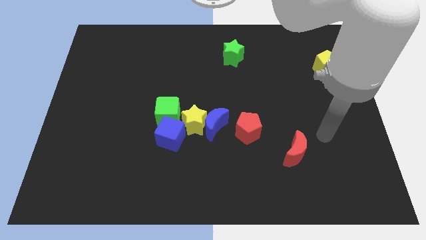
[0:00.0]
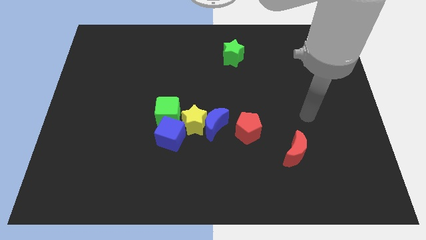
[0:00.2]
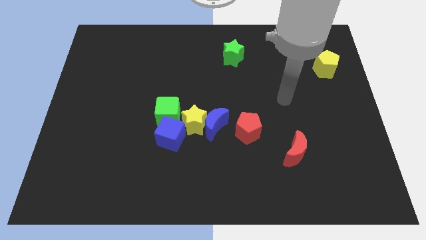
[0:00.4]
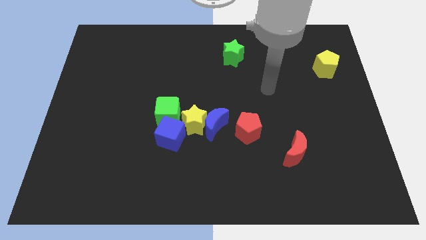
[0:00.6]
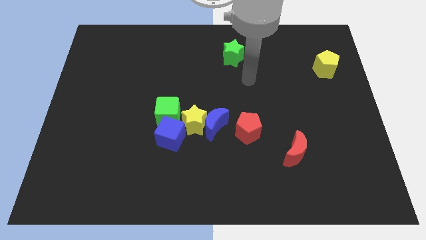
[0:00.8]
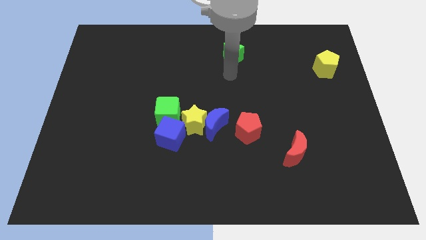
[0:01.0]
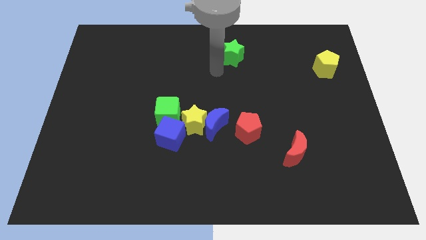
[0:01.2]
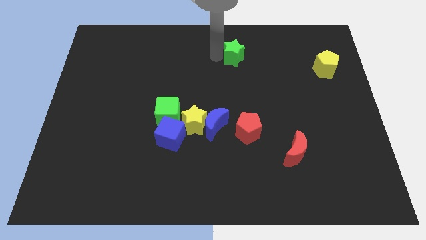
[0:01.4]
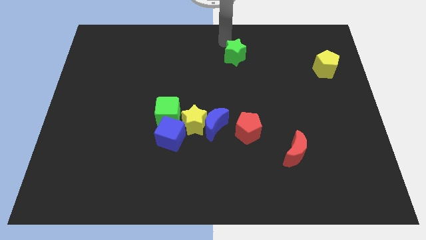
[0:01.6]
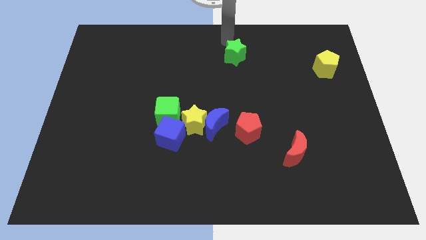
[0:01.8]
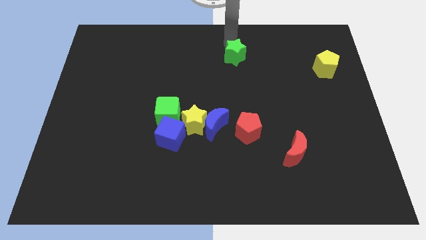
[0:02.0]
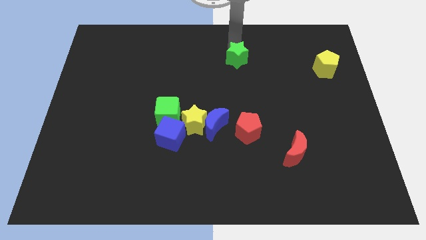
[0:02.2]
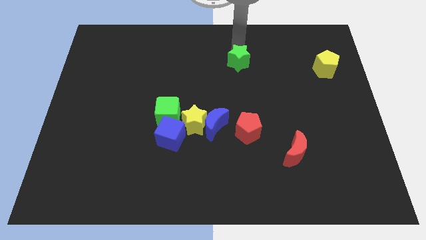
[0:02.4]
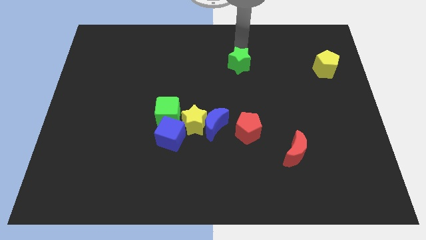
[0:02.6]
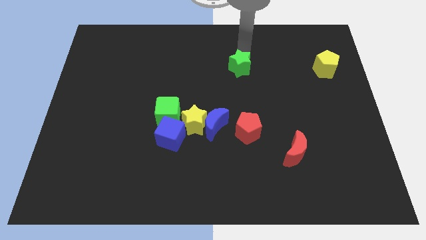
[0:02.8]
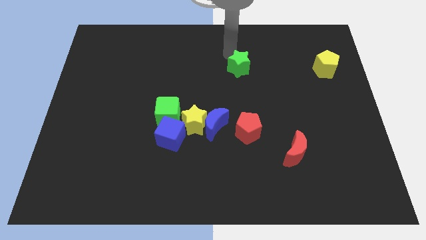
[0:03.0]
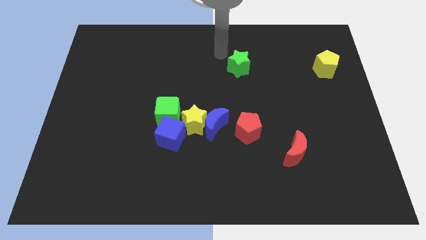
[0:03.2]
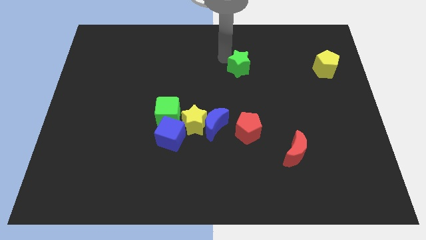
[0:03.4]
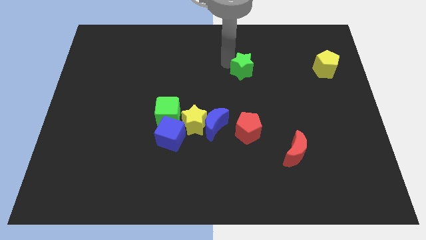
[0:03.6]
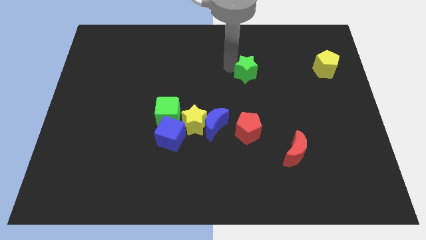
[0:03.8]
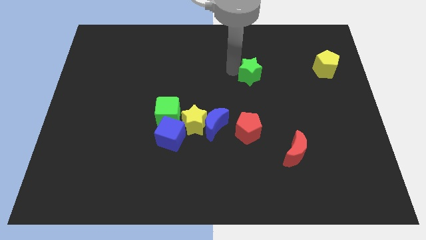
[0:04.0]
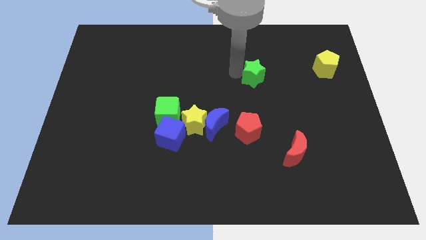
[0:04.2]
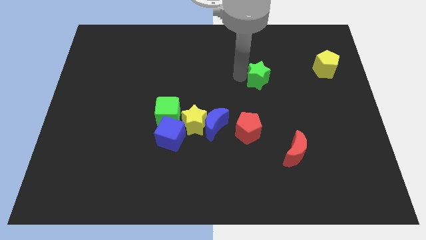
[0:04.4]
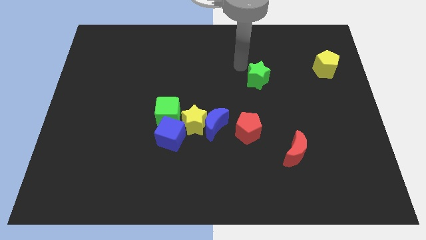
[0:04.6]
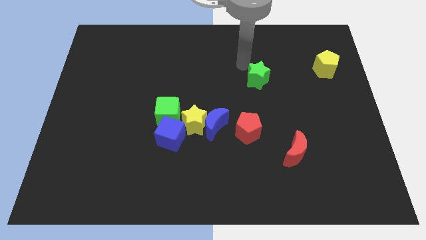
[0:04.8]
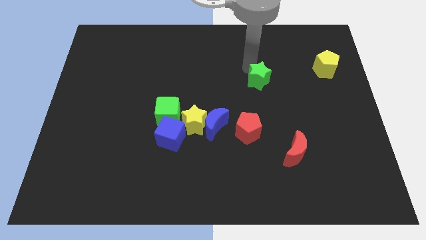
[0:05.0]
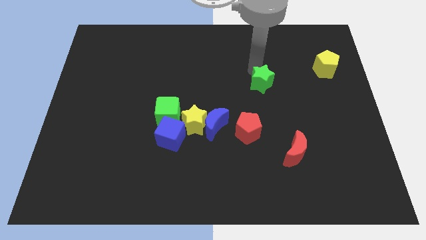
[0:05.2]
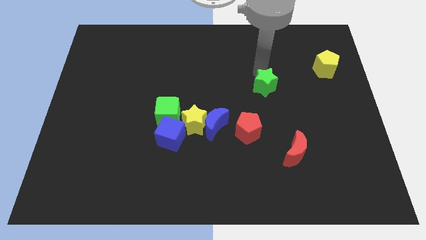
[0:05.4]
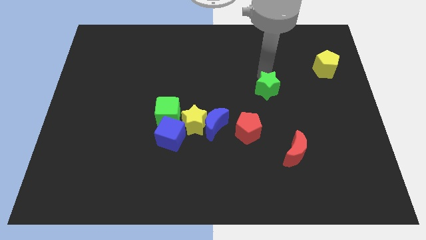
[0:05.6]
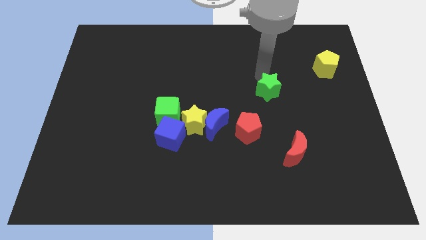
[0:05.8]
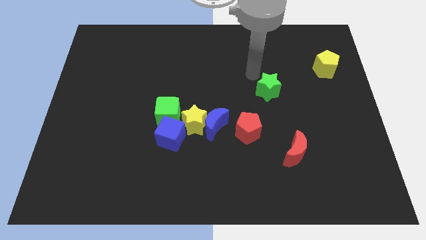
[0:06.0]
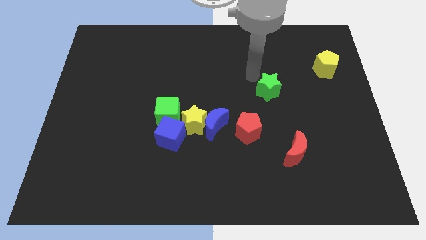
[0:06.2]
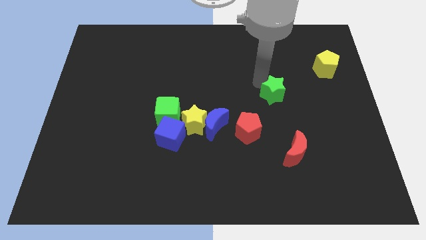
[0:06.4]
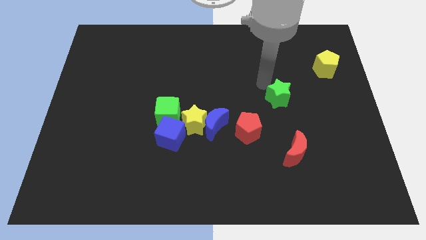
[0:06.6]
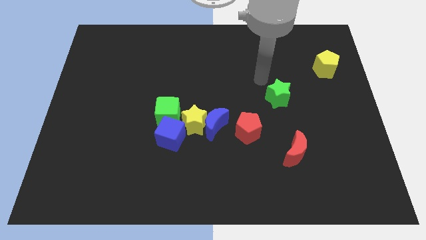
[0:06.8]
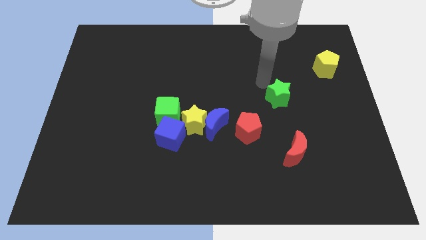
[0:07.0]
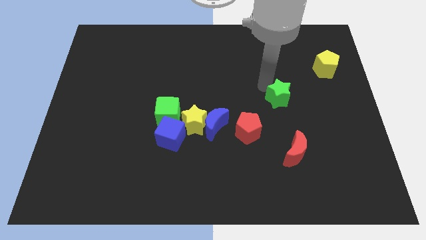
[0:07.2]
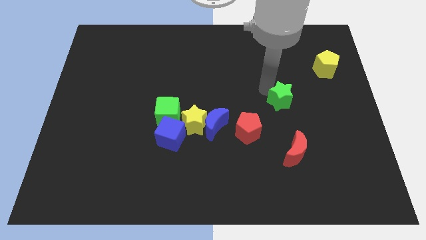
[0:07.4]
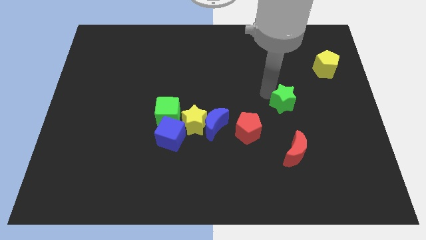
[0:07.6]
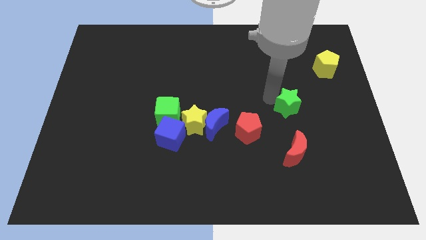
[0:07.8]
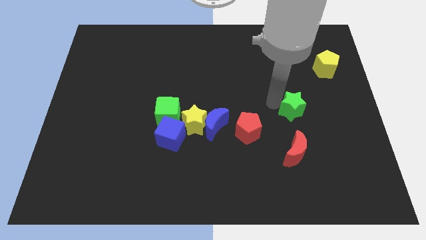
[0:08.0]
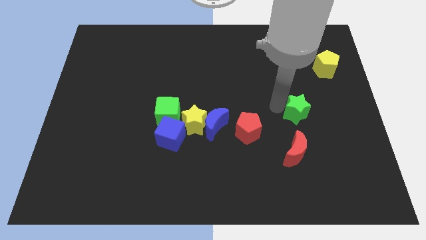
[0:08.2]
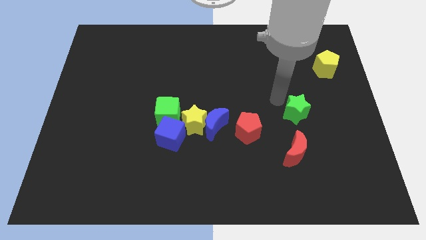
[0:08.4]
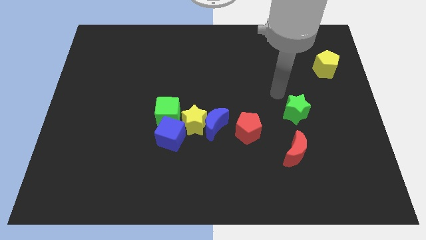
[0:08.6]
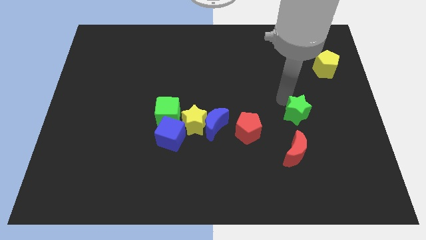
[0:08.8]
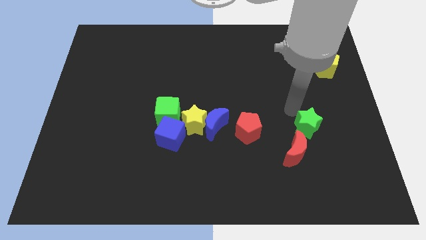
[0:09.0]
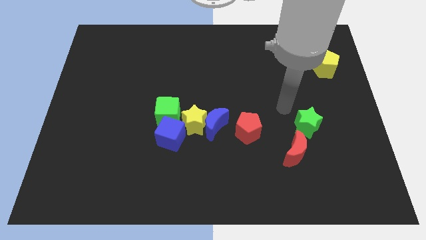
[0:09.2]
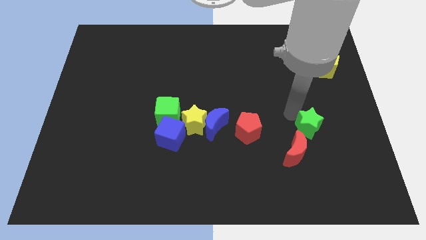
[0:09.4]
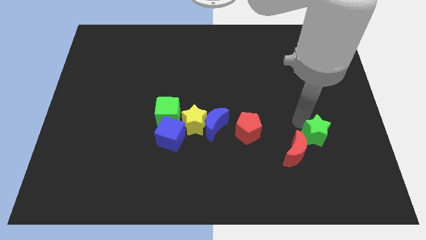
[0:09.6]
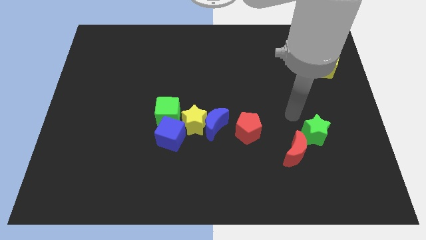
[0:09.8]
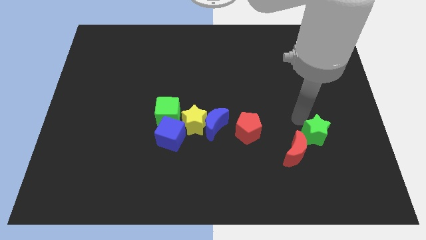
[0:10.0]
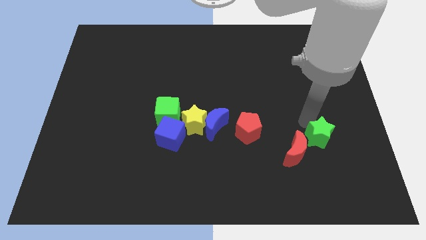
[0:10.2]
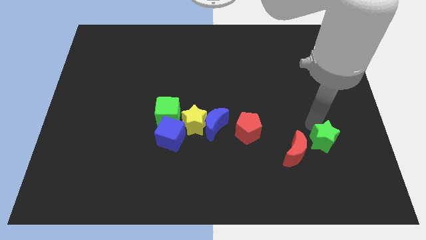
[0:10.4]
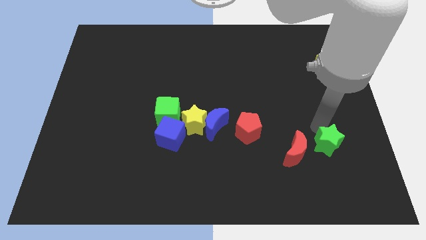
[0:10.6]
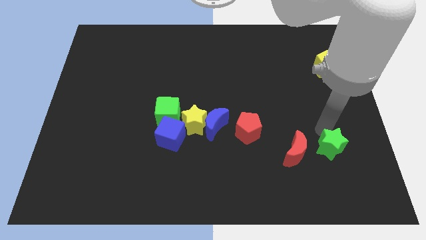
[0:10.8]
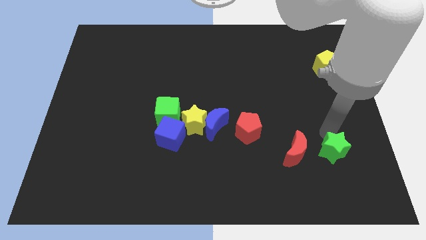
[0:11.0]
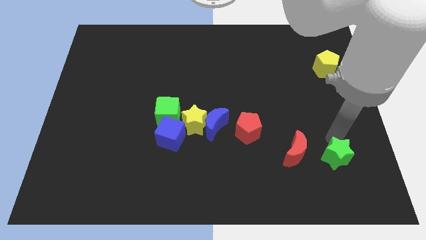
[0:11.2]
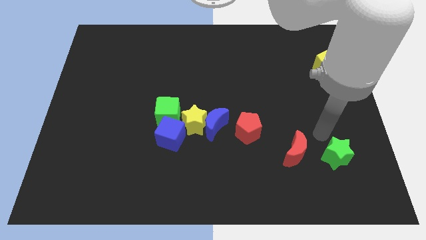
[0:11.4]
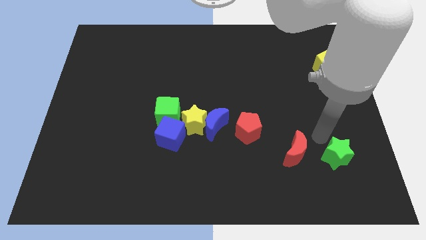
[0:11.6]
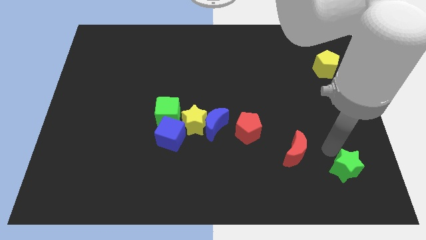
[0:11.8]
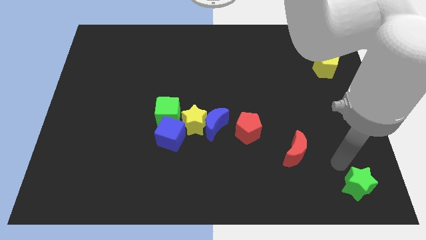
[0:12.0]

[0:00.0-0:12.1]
move the green star to the bottom right of the board

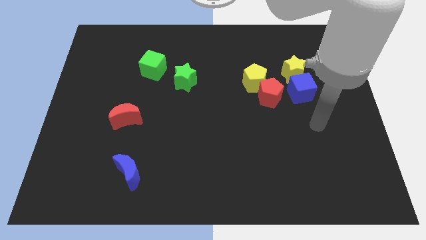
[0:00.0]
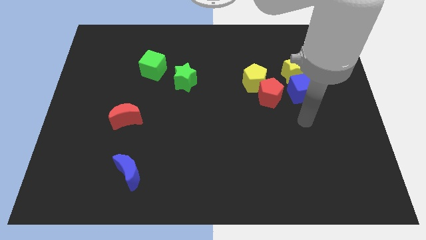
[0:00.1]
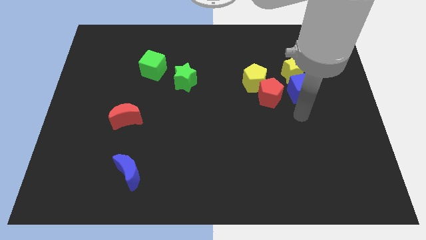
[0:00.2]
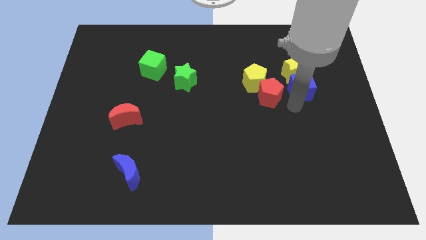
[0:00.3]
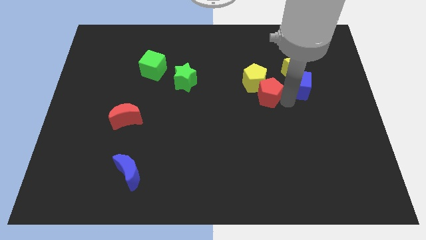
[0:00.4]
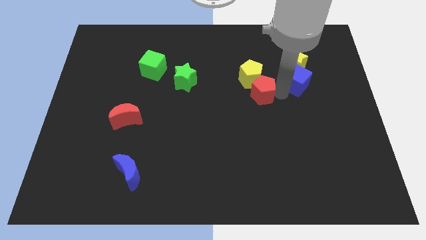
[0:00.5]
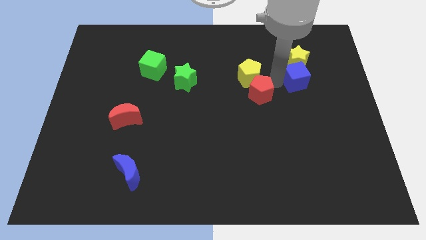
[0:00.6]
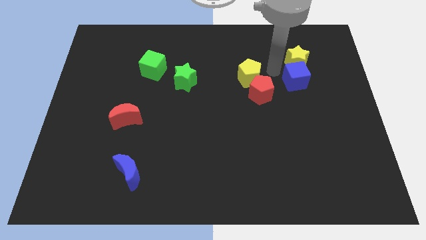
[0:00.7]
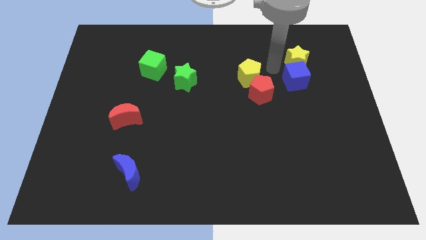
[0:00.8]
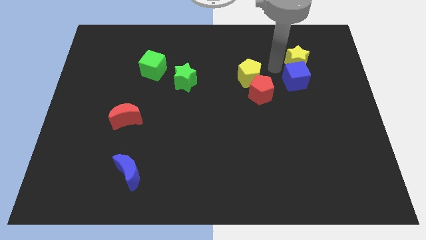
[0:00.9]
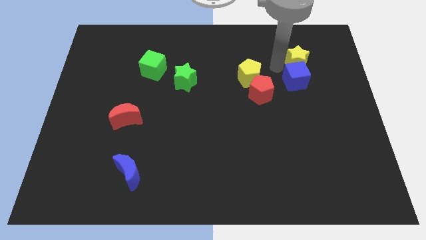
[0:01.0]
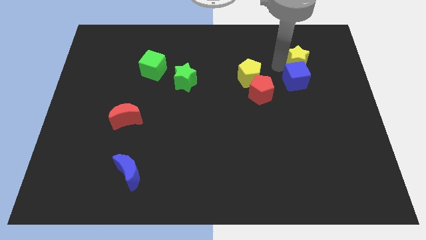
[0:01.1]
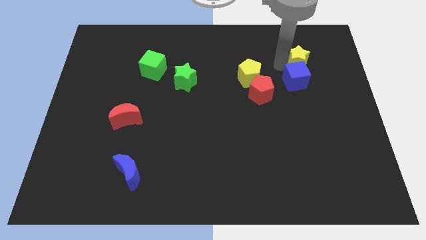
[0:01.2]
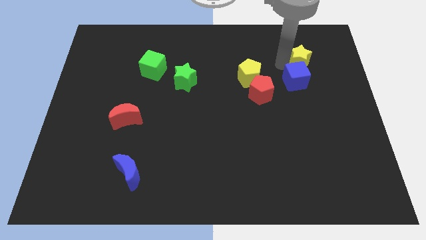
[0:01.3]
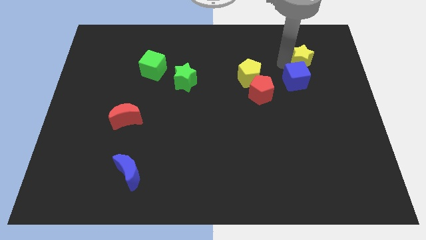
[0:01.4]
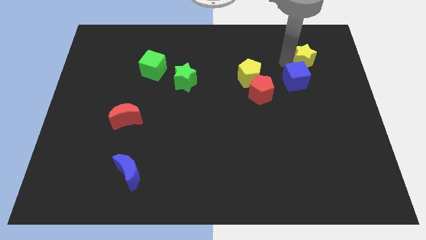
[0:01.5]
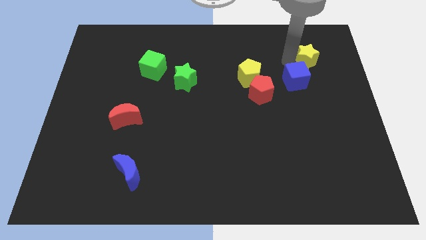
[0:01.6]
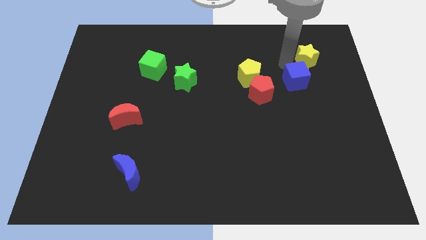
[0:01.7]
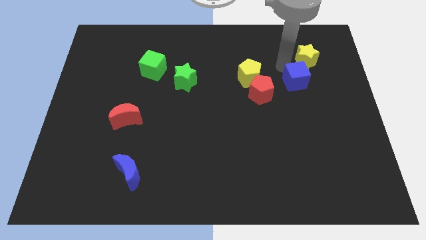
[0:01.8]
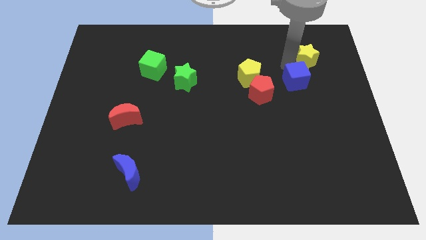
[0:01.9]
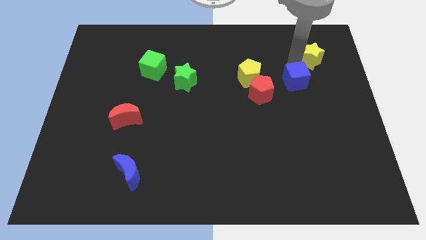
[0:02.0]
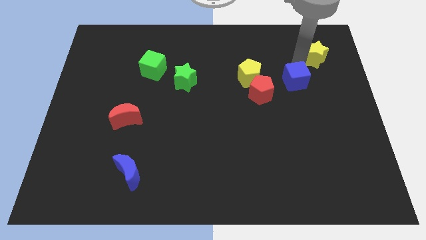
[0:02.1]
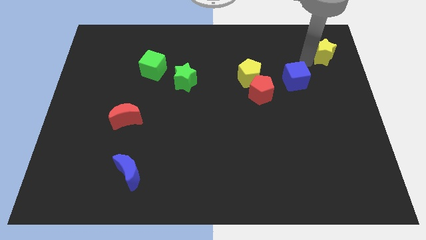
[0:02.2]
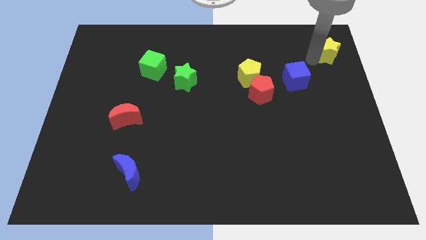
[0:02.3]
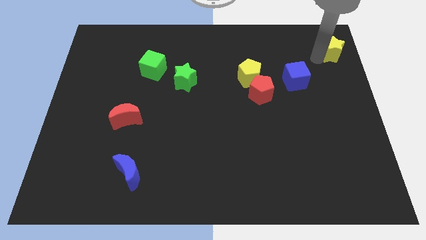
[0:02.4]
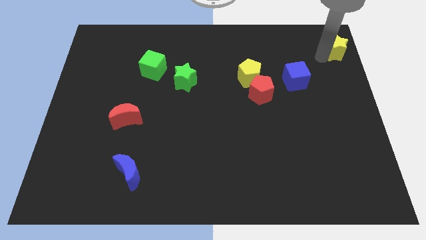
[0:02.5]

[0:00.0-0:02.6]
move the yellow star to the top right of the board
